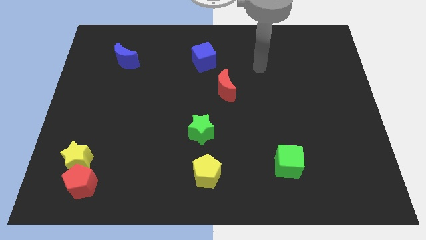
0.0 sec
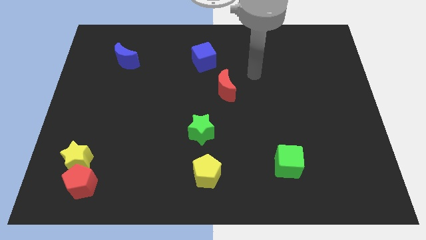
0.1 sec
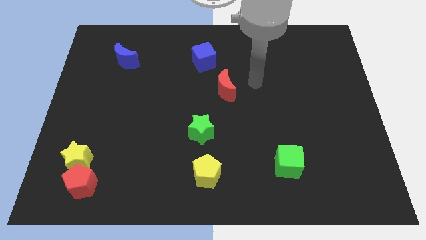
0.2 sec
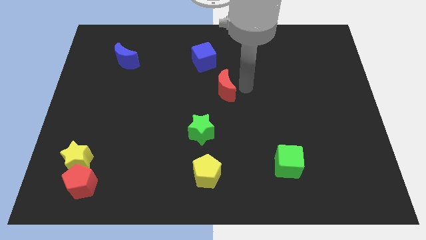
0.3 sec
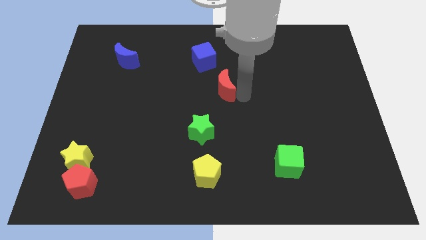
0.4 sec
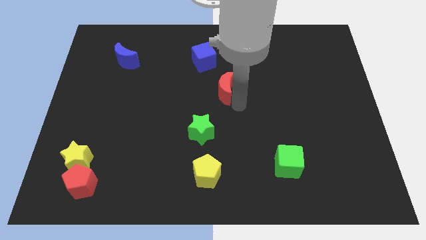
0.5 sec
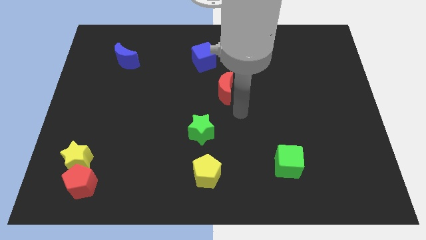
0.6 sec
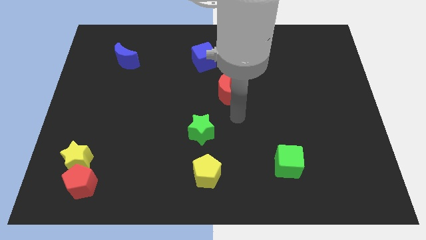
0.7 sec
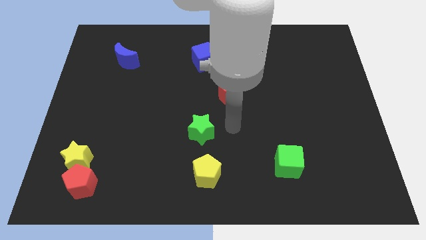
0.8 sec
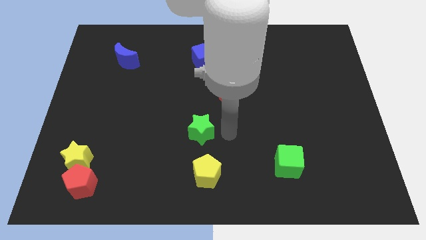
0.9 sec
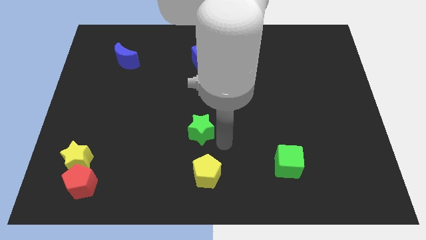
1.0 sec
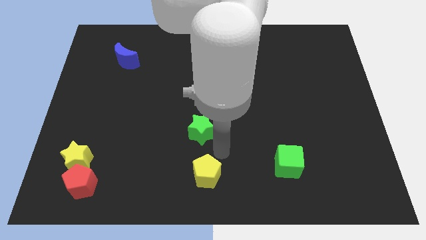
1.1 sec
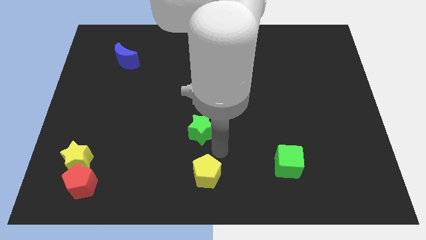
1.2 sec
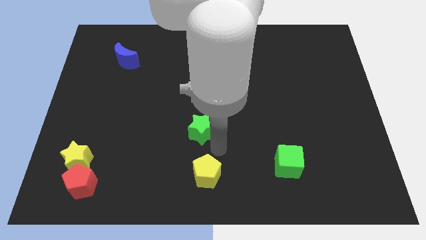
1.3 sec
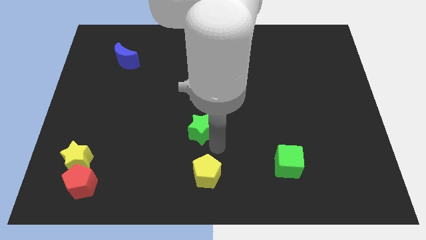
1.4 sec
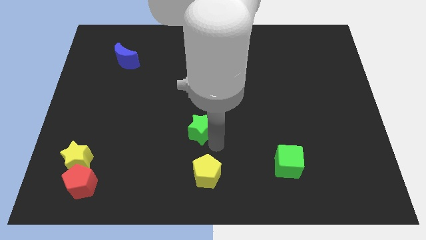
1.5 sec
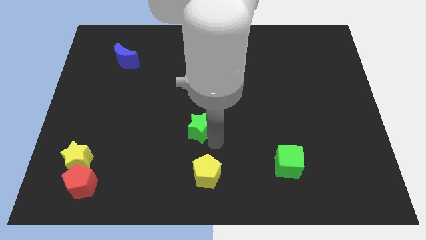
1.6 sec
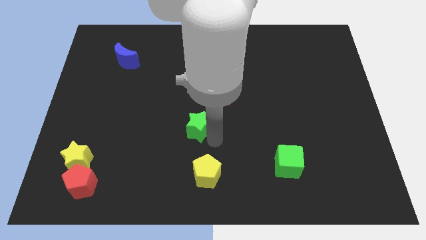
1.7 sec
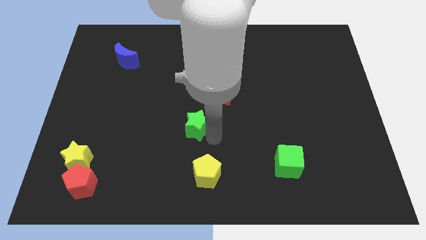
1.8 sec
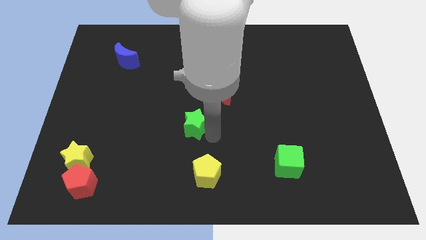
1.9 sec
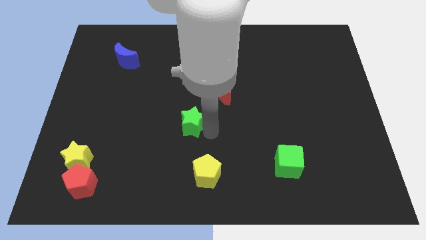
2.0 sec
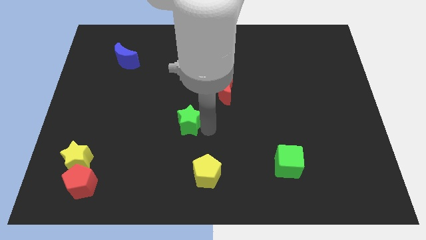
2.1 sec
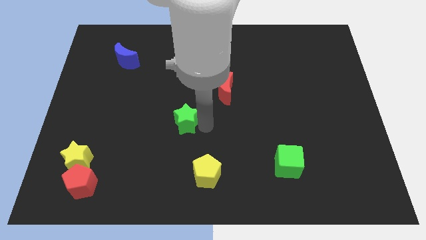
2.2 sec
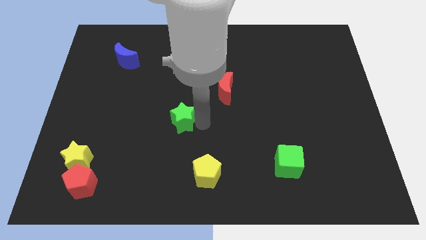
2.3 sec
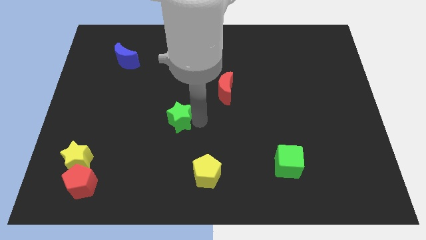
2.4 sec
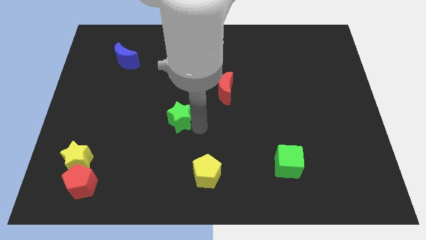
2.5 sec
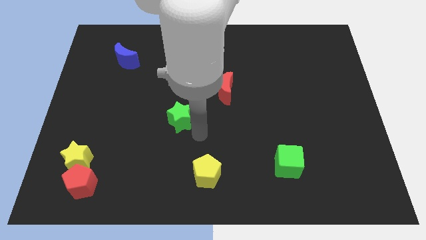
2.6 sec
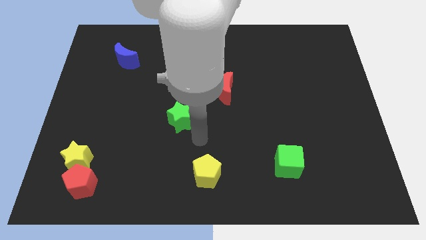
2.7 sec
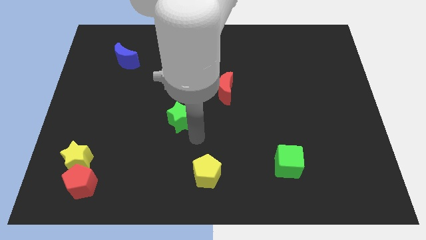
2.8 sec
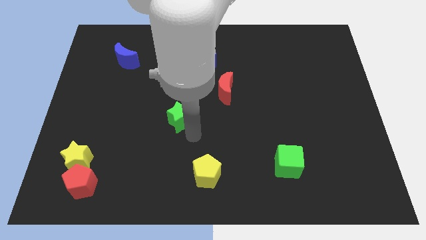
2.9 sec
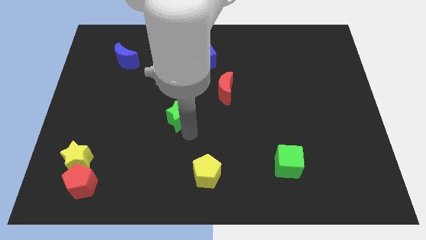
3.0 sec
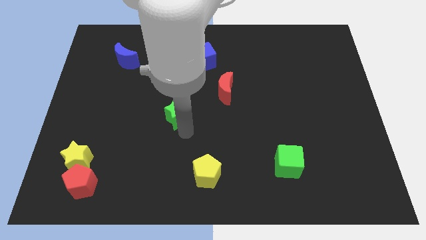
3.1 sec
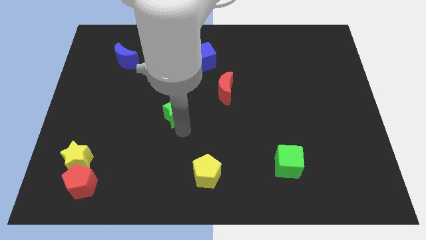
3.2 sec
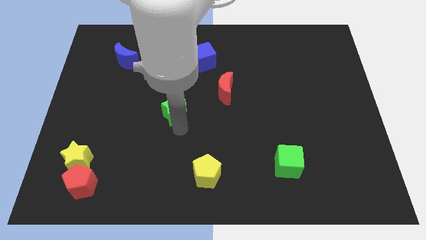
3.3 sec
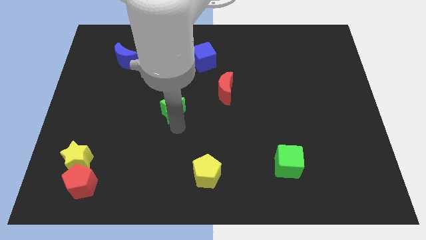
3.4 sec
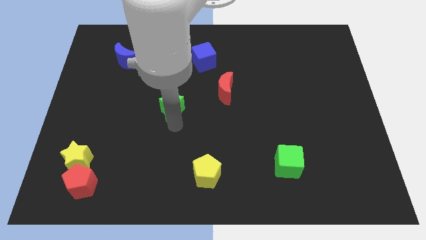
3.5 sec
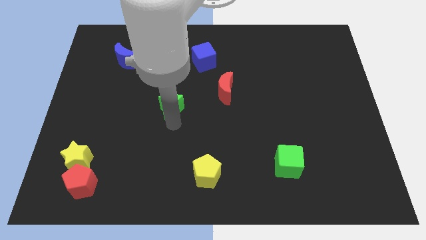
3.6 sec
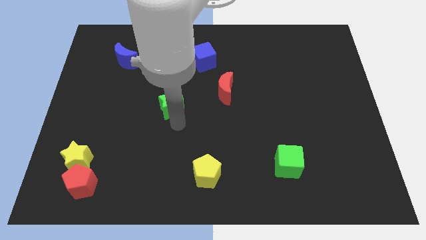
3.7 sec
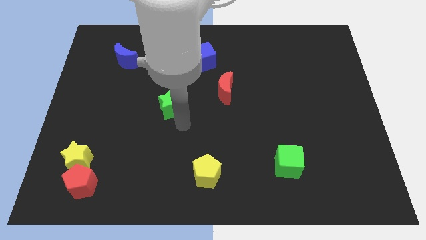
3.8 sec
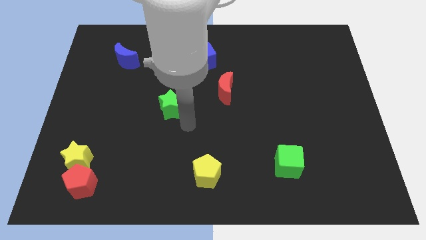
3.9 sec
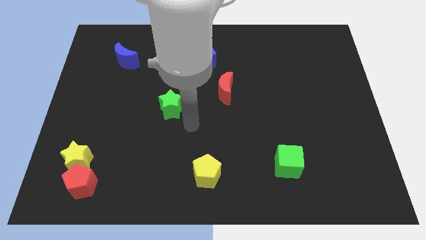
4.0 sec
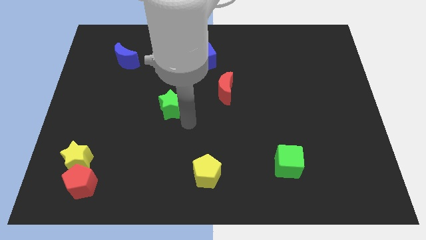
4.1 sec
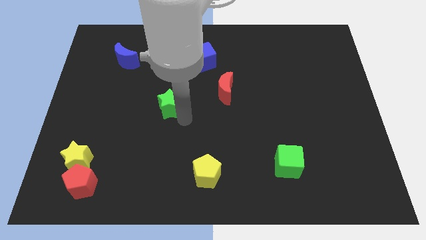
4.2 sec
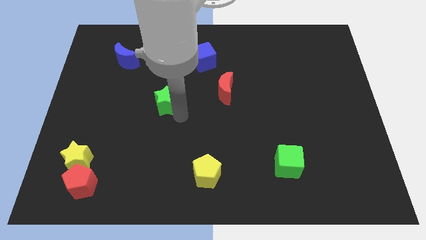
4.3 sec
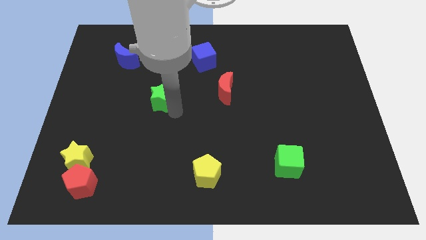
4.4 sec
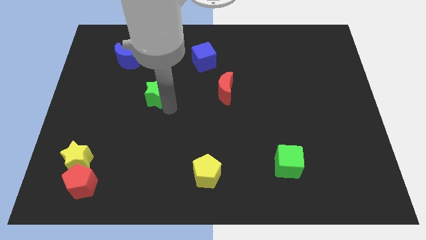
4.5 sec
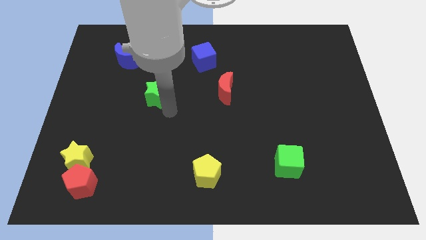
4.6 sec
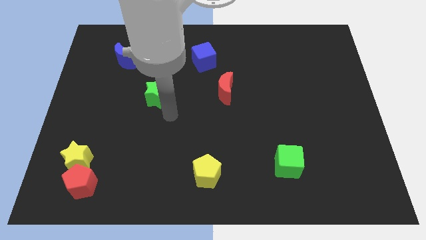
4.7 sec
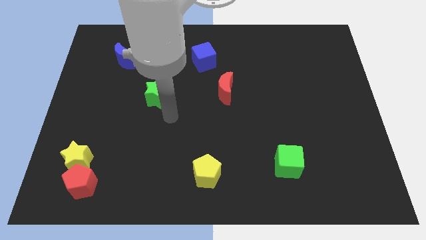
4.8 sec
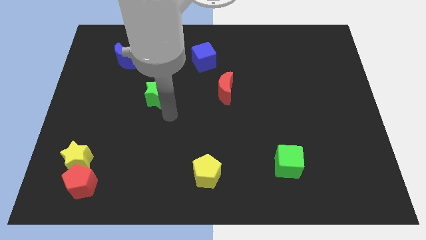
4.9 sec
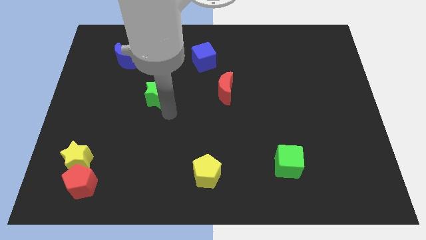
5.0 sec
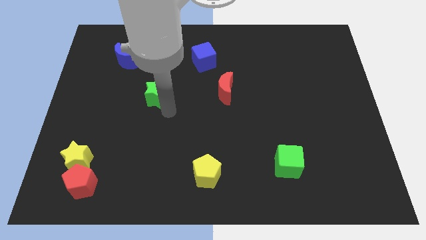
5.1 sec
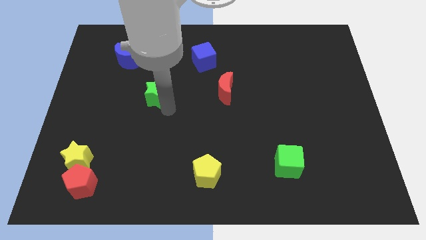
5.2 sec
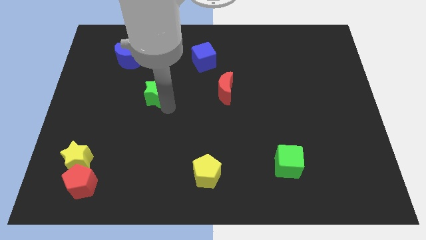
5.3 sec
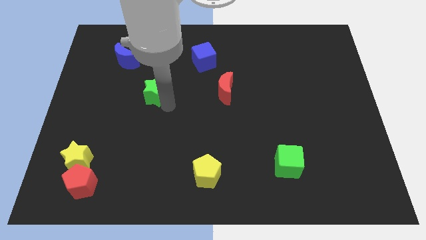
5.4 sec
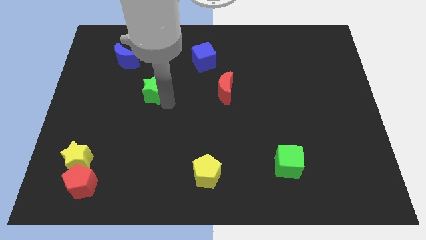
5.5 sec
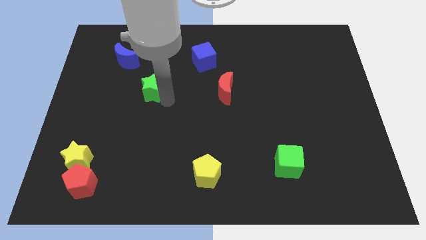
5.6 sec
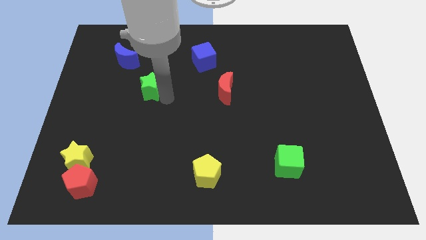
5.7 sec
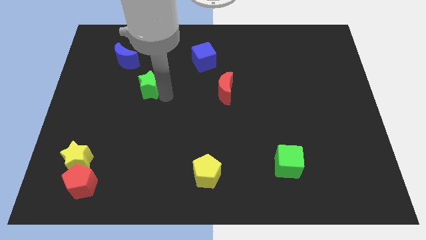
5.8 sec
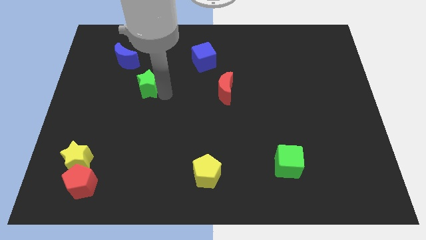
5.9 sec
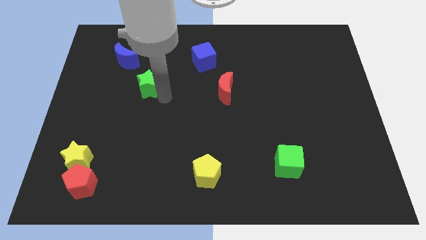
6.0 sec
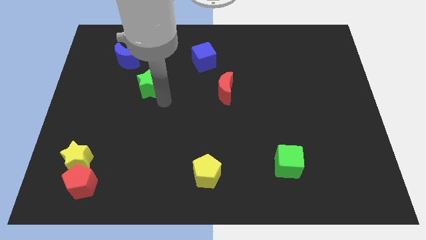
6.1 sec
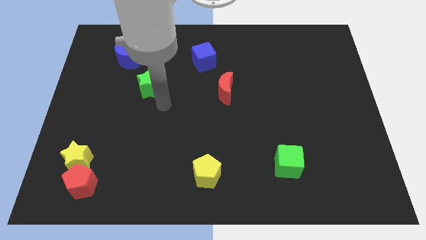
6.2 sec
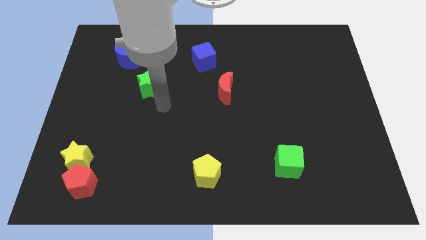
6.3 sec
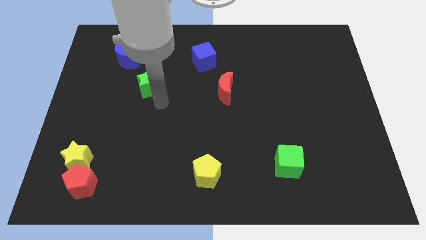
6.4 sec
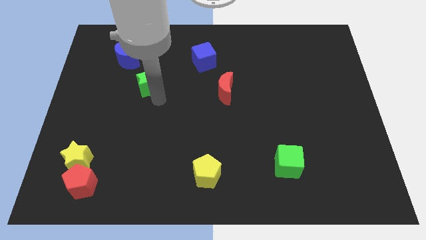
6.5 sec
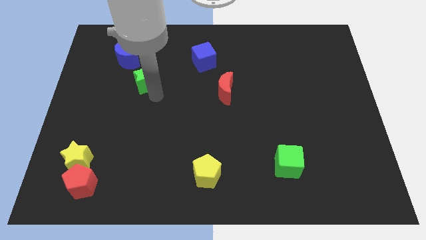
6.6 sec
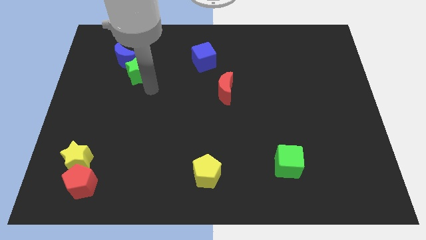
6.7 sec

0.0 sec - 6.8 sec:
move the green star to the blue moon

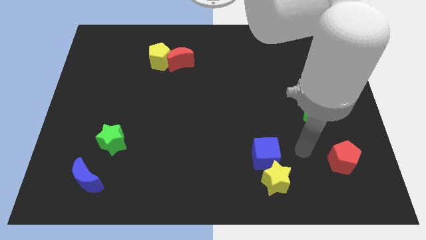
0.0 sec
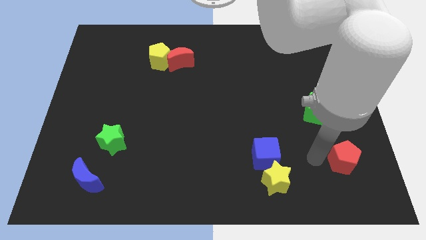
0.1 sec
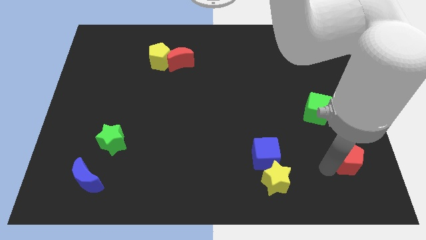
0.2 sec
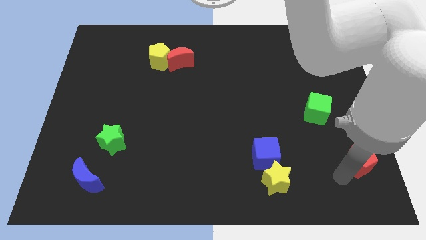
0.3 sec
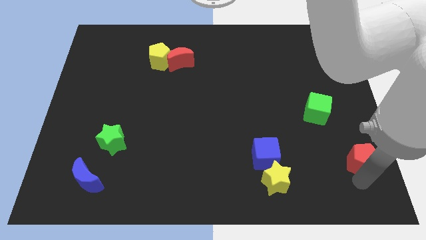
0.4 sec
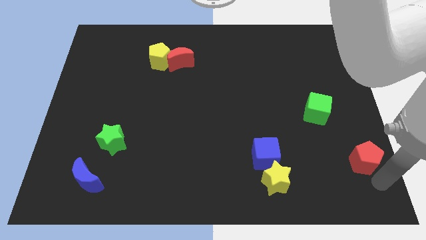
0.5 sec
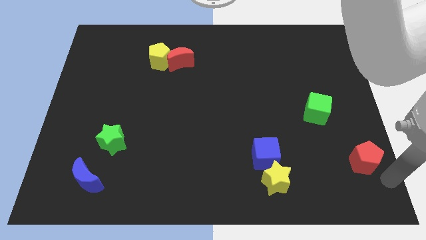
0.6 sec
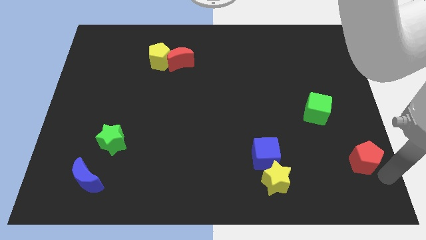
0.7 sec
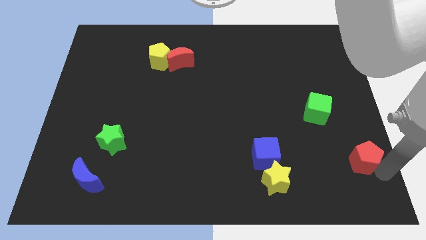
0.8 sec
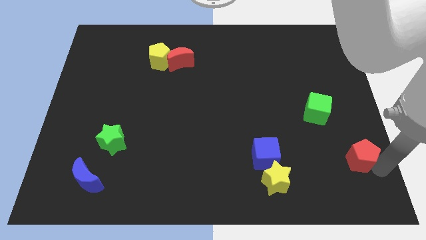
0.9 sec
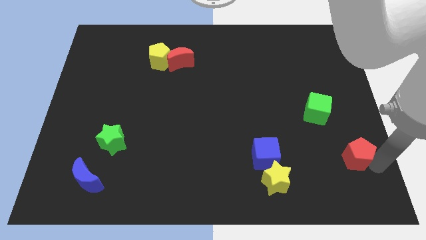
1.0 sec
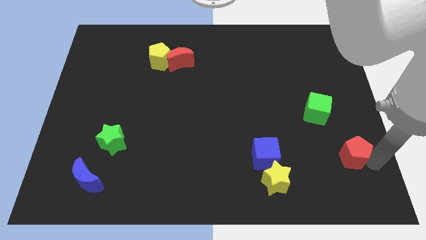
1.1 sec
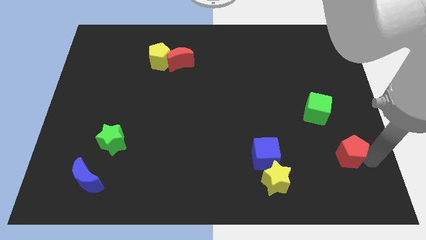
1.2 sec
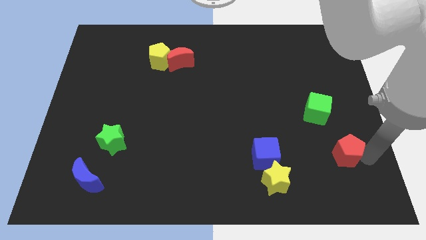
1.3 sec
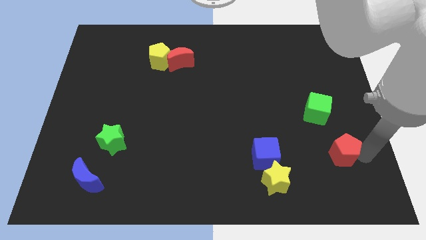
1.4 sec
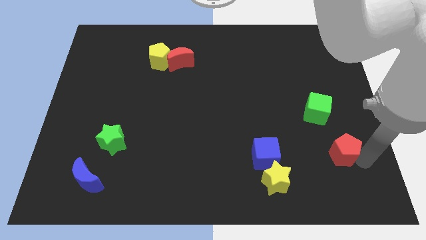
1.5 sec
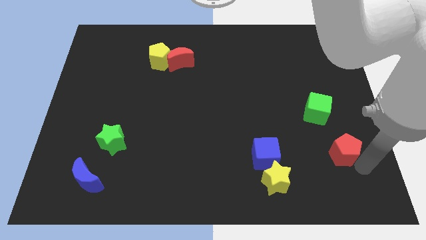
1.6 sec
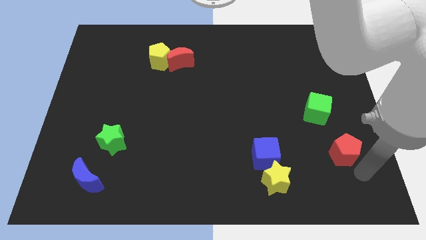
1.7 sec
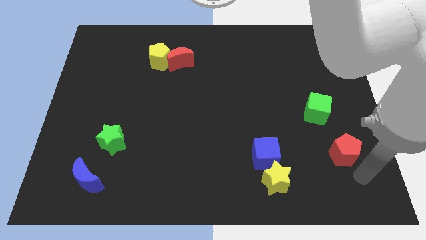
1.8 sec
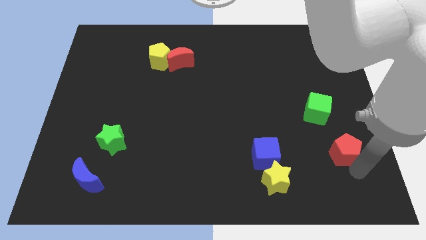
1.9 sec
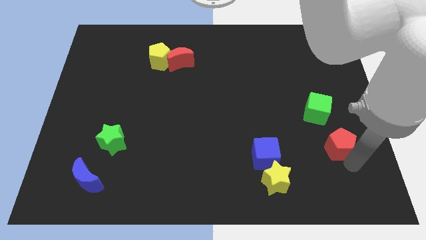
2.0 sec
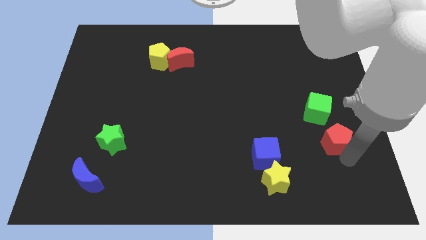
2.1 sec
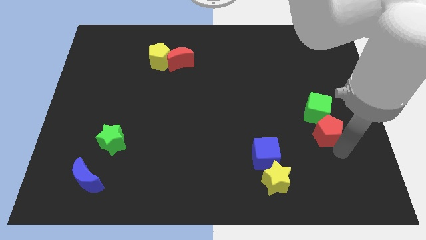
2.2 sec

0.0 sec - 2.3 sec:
slide the red pentagon to the green cube
